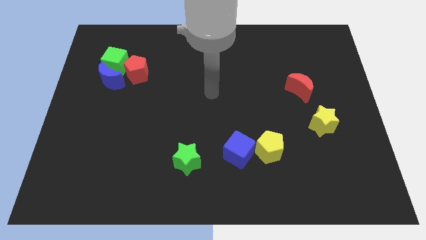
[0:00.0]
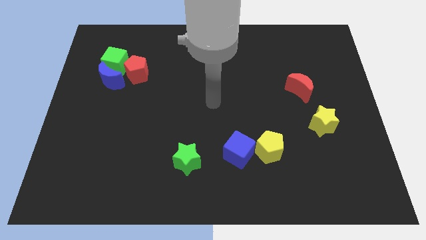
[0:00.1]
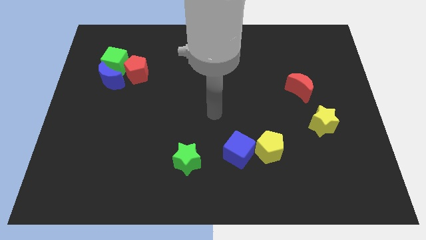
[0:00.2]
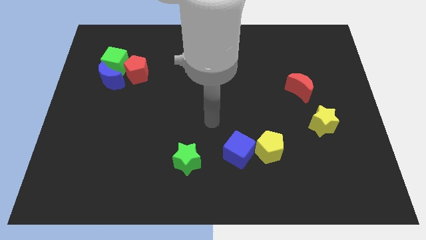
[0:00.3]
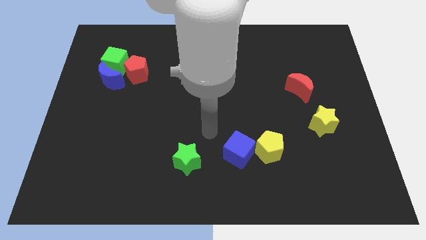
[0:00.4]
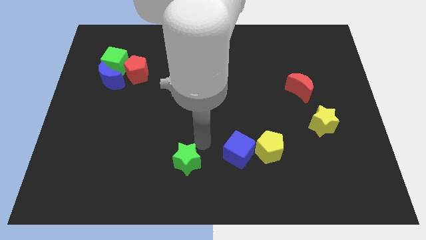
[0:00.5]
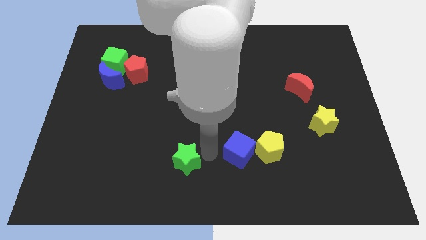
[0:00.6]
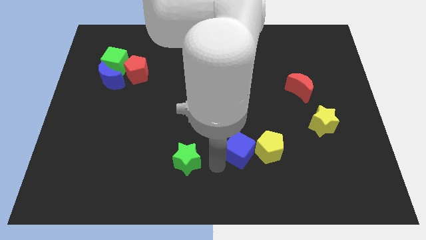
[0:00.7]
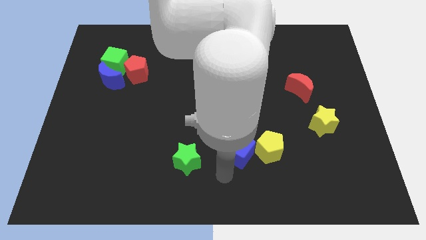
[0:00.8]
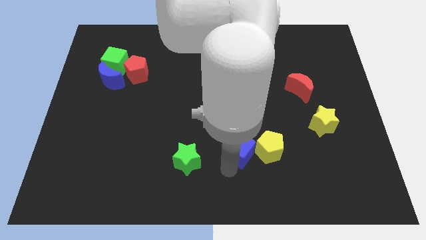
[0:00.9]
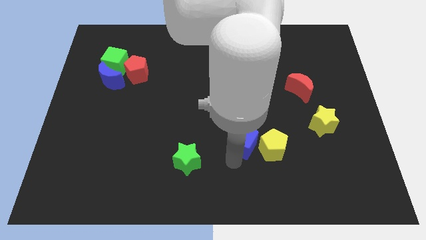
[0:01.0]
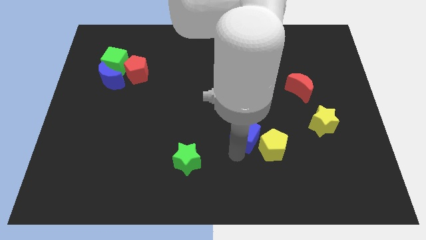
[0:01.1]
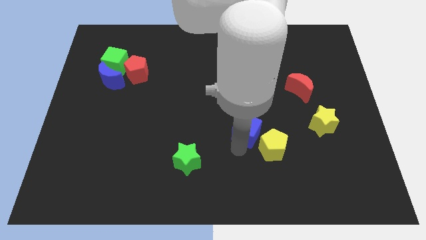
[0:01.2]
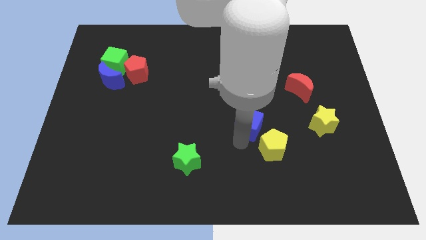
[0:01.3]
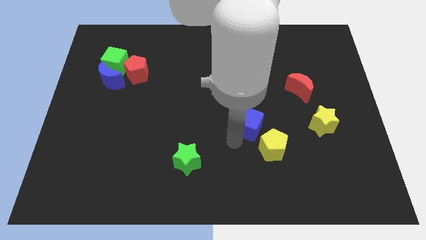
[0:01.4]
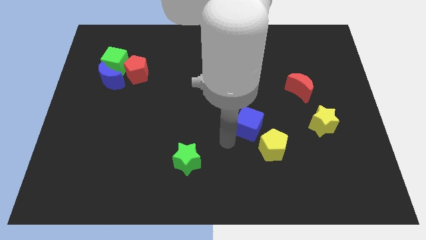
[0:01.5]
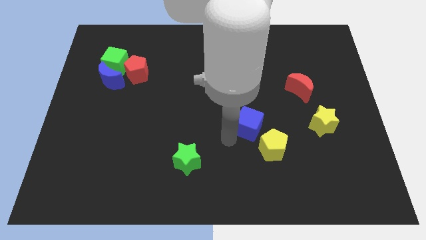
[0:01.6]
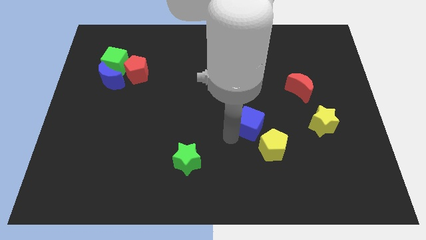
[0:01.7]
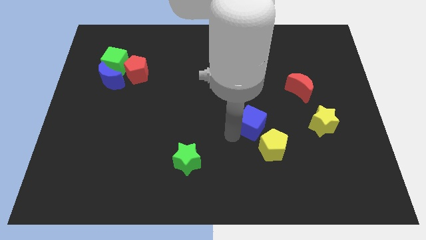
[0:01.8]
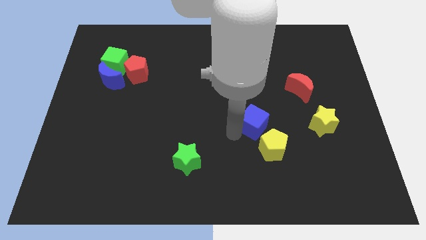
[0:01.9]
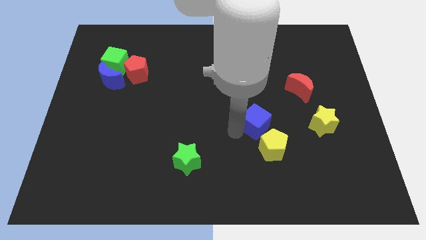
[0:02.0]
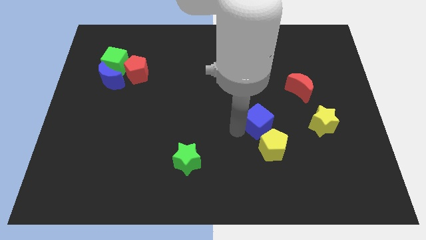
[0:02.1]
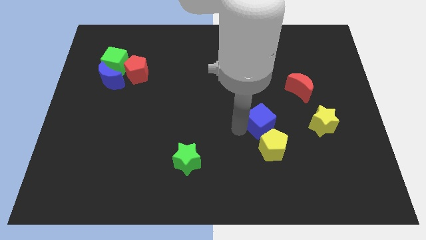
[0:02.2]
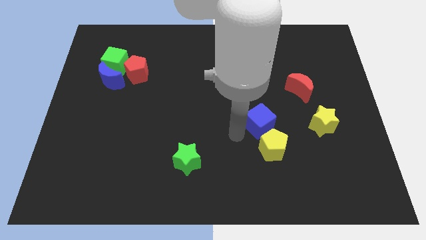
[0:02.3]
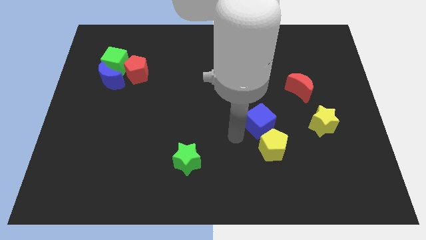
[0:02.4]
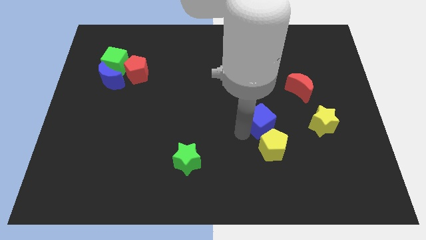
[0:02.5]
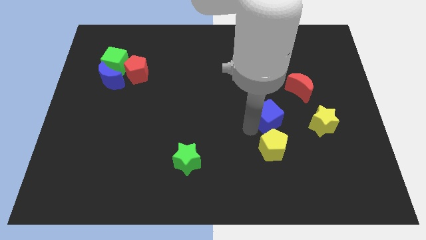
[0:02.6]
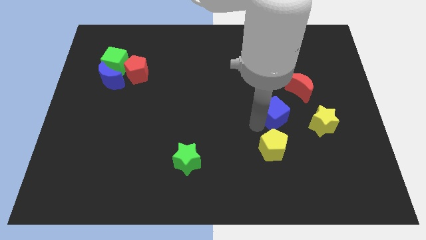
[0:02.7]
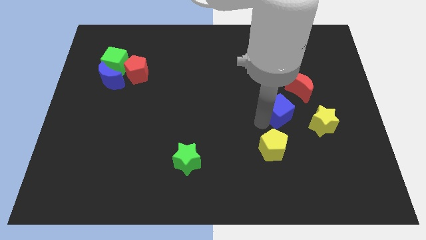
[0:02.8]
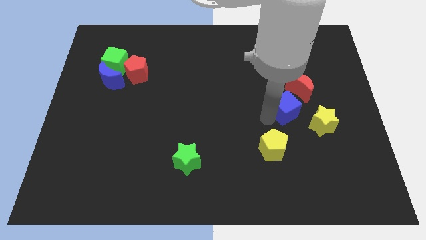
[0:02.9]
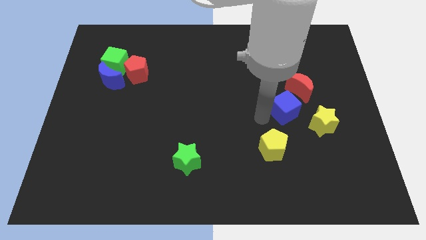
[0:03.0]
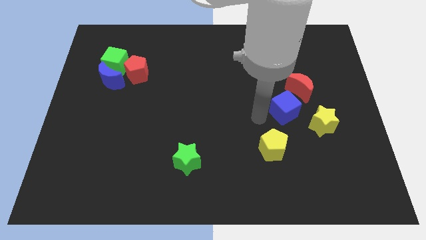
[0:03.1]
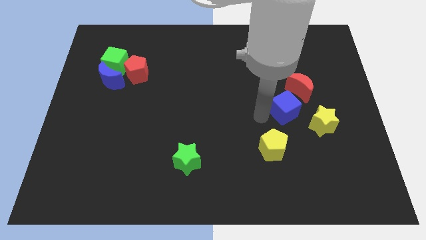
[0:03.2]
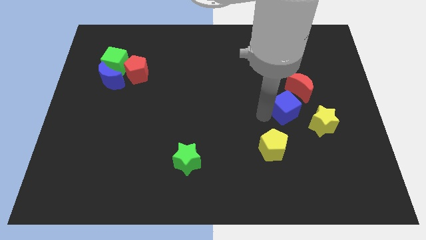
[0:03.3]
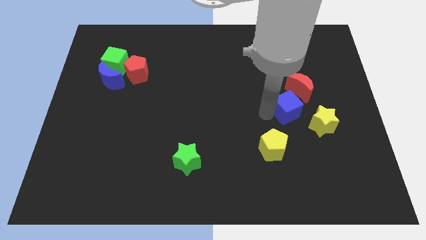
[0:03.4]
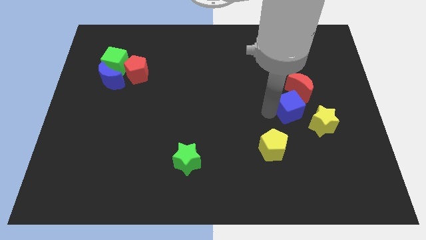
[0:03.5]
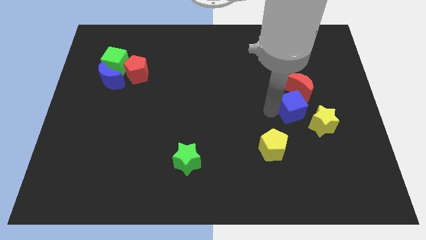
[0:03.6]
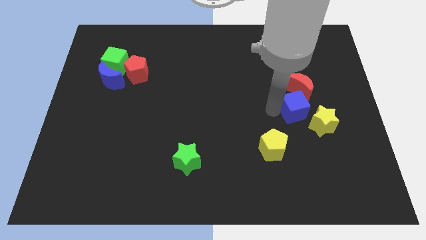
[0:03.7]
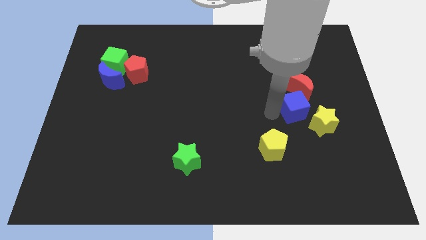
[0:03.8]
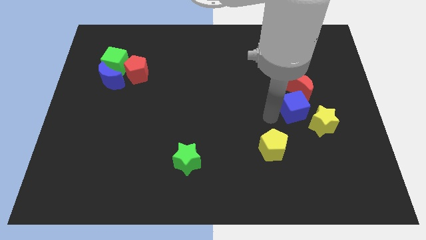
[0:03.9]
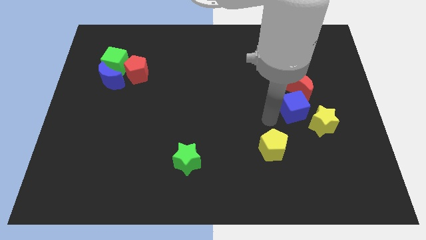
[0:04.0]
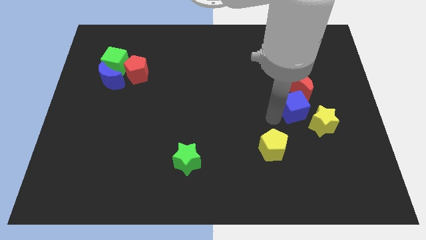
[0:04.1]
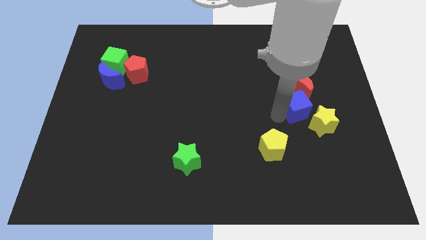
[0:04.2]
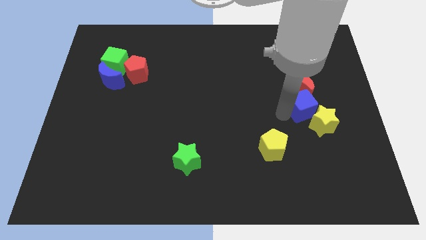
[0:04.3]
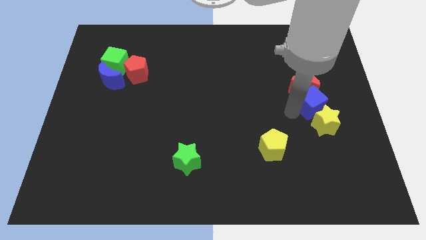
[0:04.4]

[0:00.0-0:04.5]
push the blue cube upwards and right diagonally

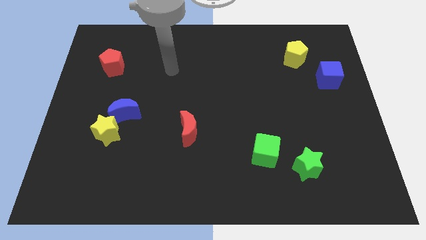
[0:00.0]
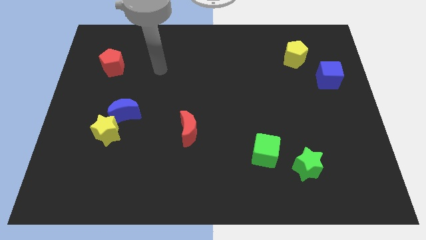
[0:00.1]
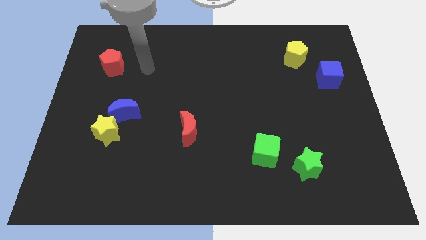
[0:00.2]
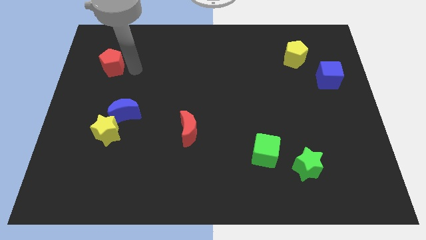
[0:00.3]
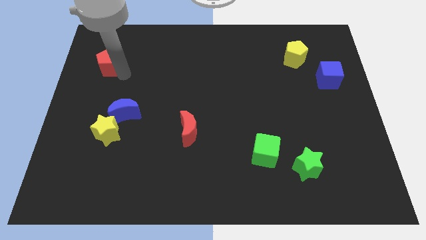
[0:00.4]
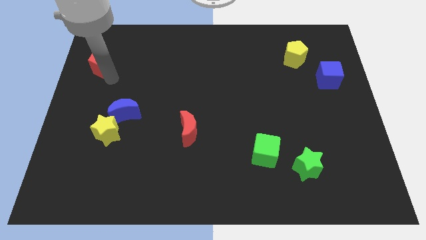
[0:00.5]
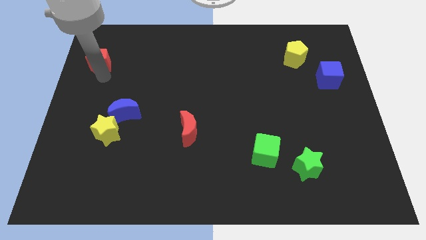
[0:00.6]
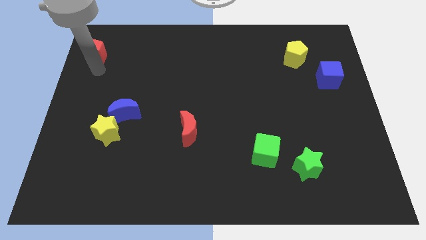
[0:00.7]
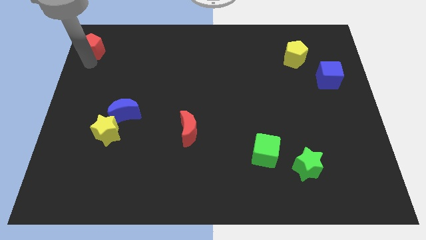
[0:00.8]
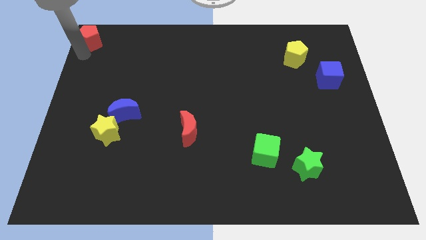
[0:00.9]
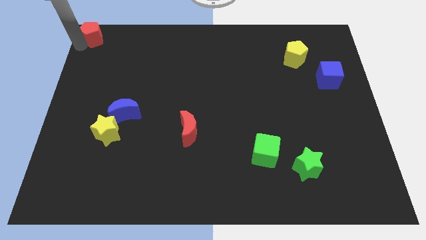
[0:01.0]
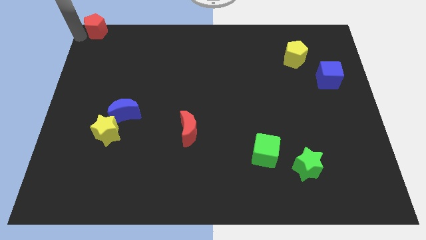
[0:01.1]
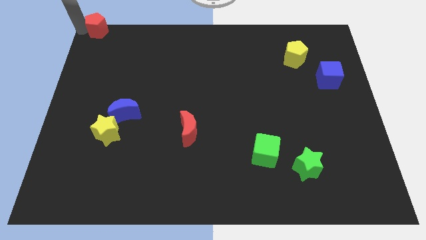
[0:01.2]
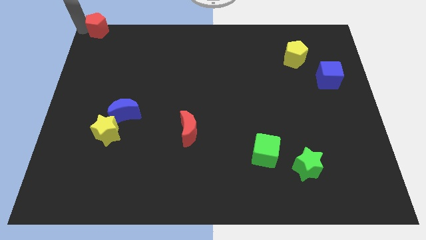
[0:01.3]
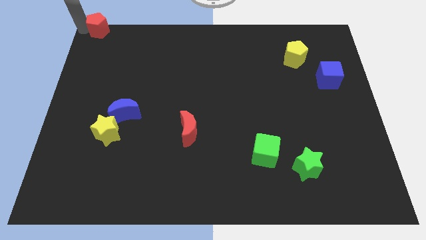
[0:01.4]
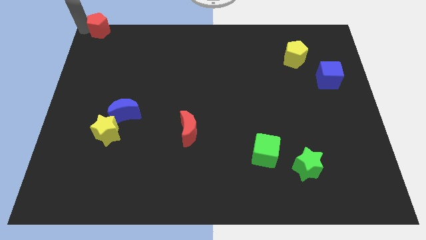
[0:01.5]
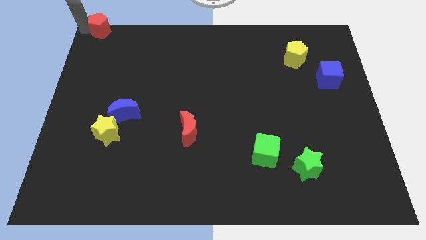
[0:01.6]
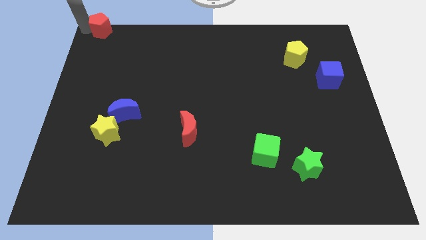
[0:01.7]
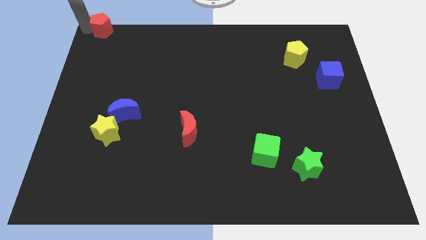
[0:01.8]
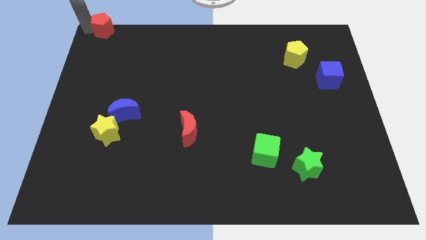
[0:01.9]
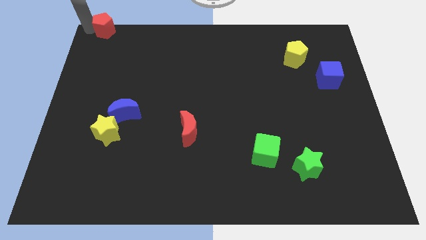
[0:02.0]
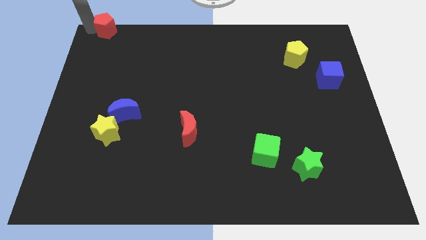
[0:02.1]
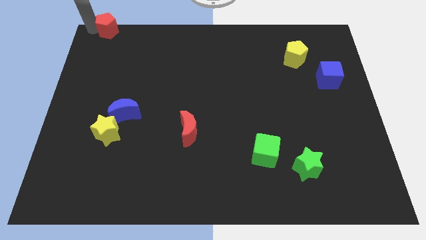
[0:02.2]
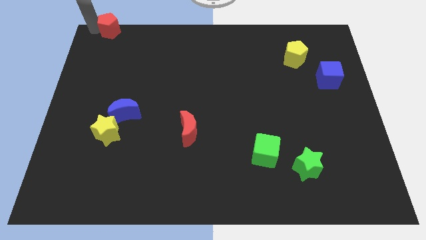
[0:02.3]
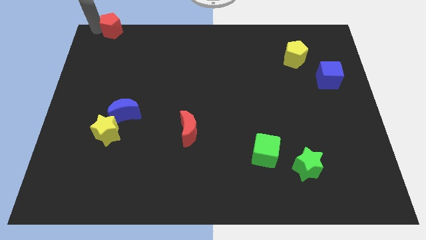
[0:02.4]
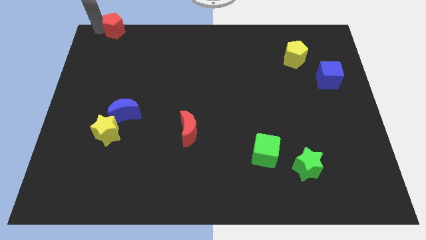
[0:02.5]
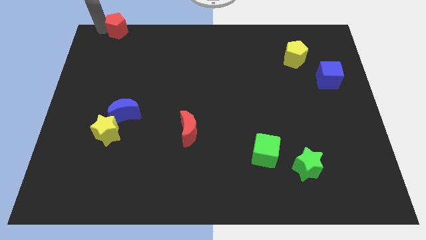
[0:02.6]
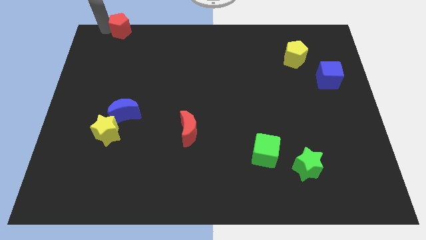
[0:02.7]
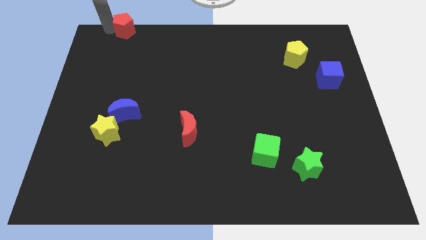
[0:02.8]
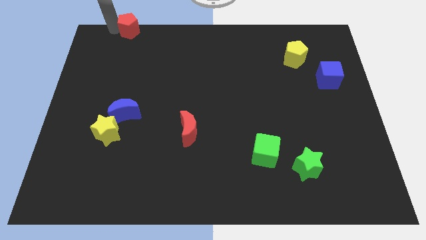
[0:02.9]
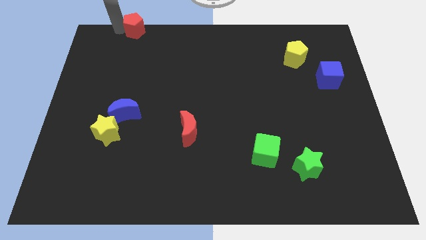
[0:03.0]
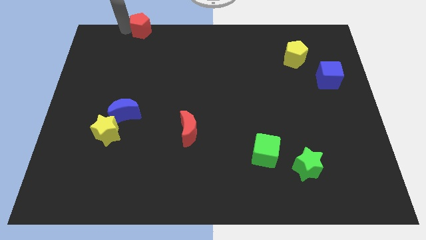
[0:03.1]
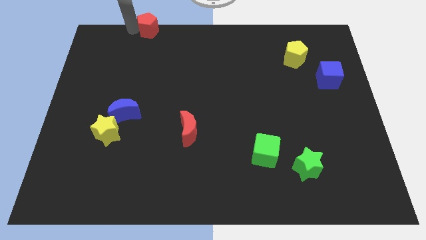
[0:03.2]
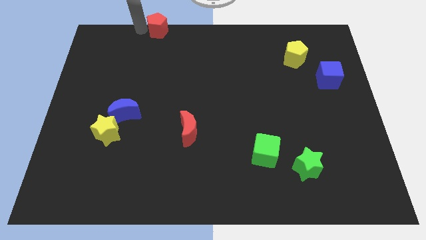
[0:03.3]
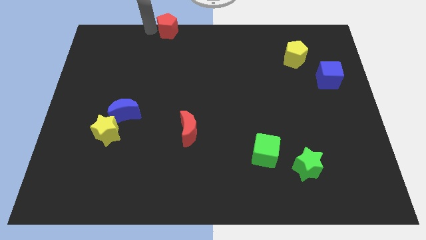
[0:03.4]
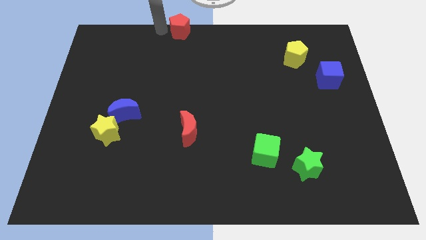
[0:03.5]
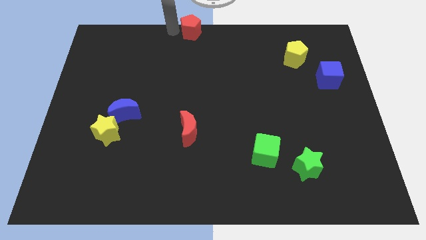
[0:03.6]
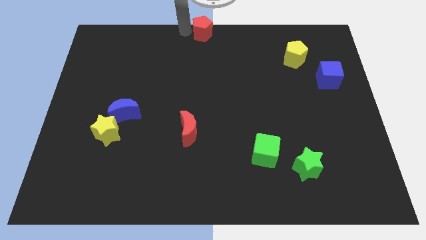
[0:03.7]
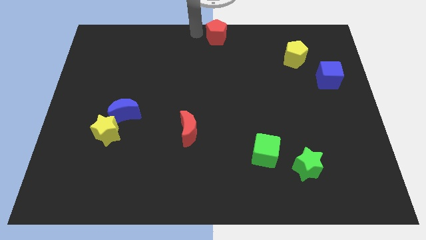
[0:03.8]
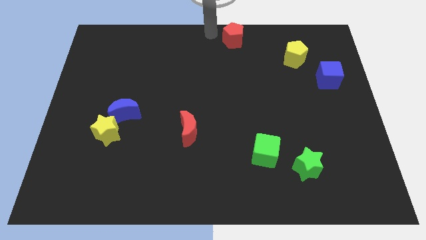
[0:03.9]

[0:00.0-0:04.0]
move the red pentagon right
